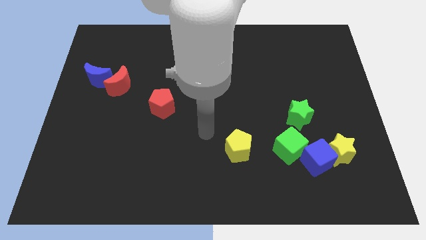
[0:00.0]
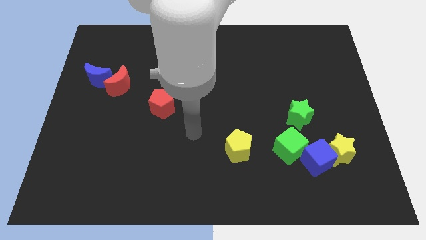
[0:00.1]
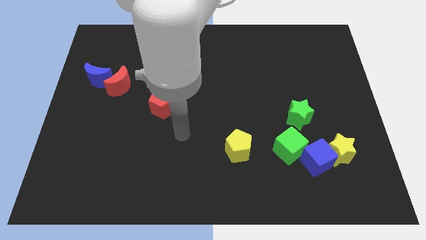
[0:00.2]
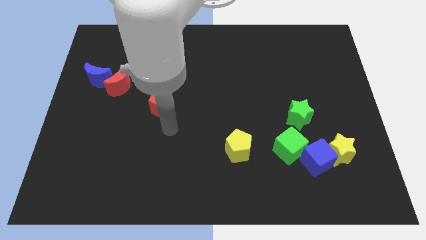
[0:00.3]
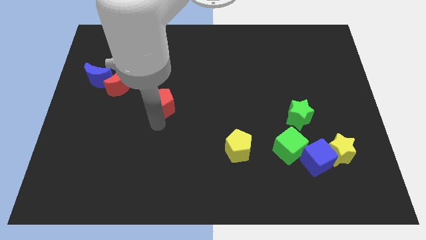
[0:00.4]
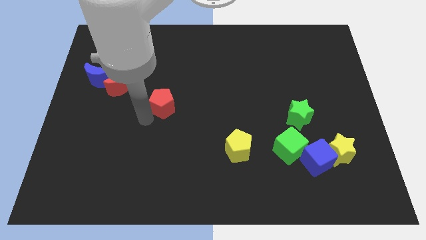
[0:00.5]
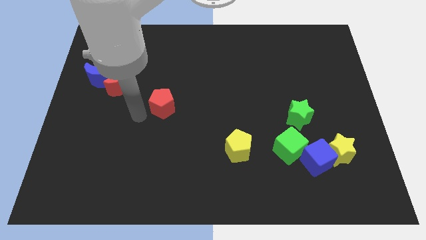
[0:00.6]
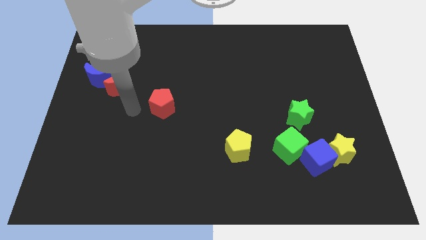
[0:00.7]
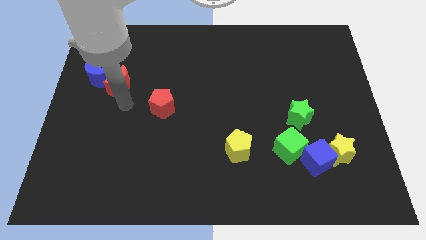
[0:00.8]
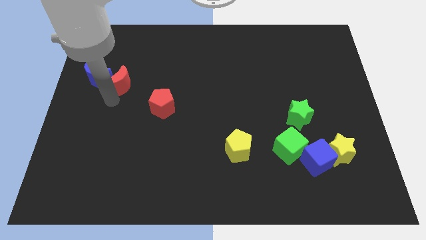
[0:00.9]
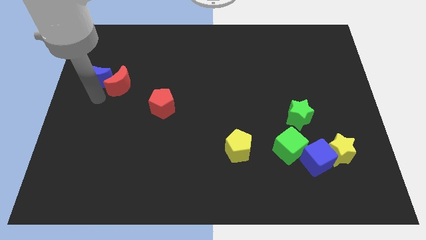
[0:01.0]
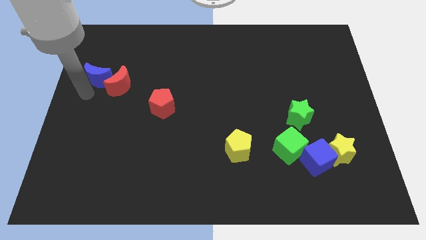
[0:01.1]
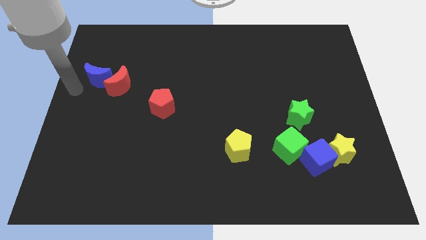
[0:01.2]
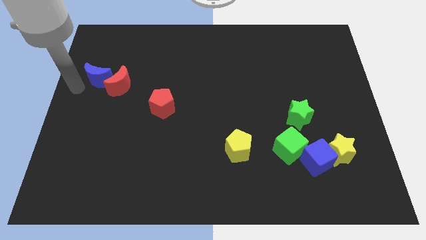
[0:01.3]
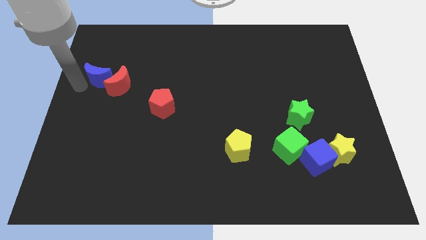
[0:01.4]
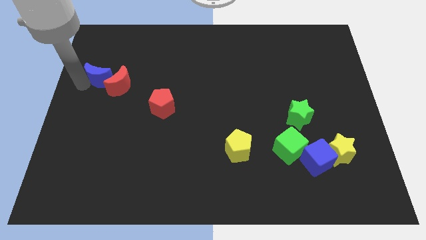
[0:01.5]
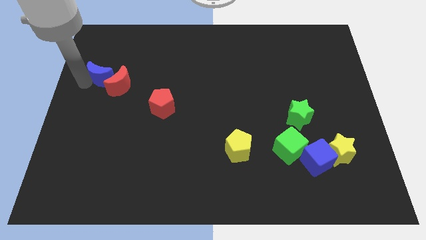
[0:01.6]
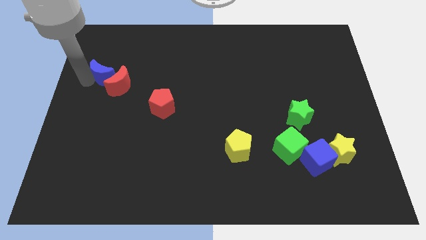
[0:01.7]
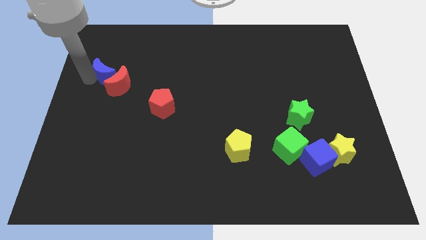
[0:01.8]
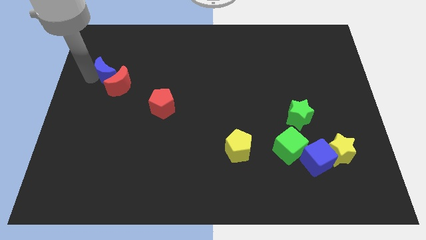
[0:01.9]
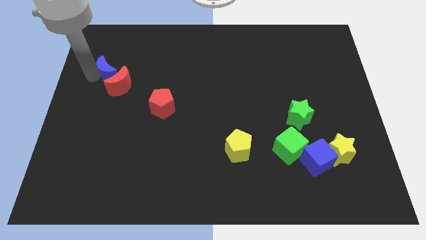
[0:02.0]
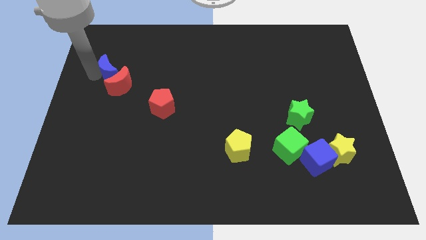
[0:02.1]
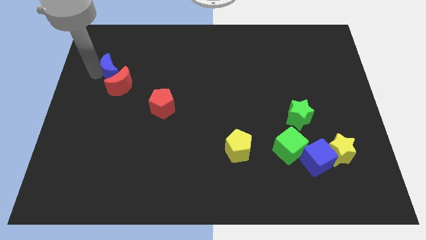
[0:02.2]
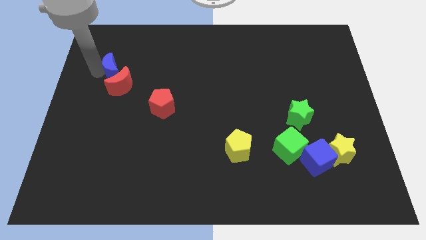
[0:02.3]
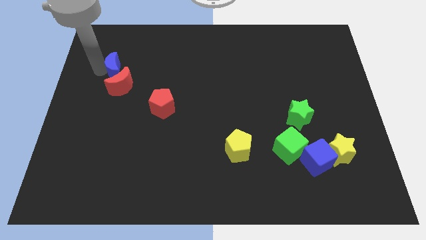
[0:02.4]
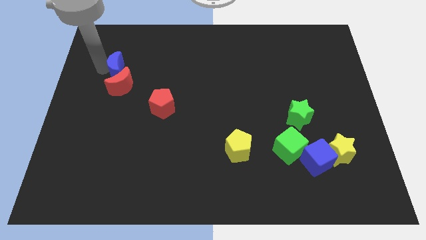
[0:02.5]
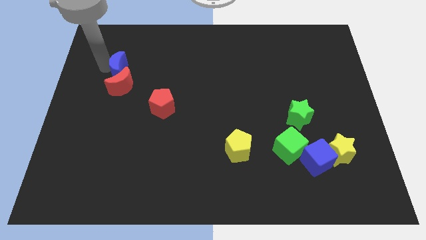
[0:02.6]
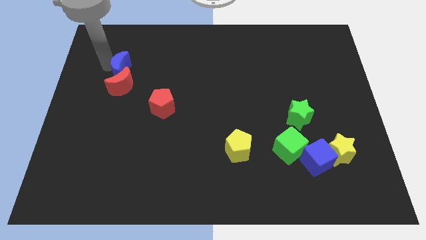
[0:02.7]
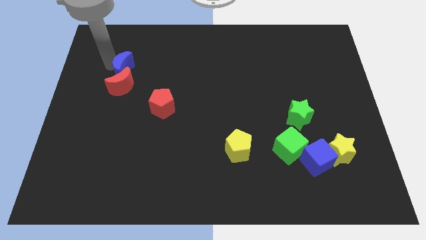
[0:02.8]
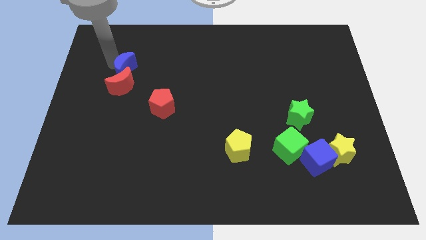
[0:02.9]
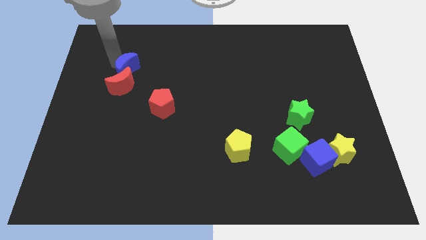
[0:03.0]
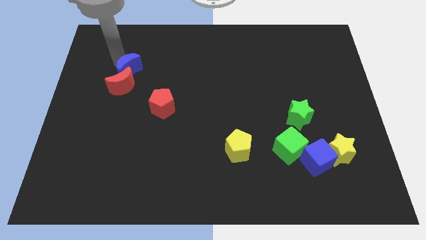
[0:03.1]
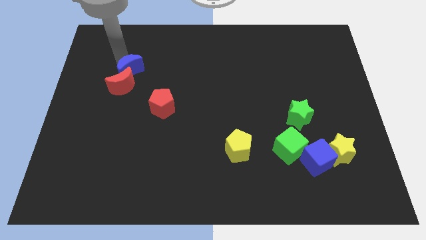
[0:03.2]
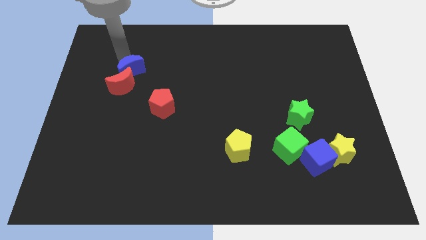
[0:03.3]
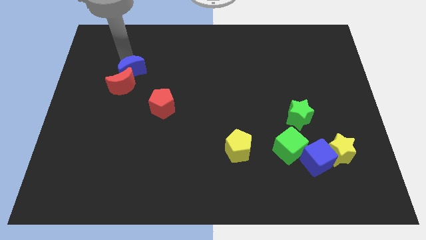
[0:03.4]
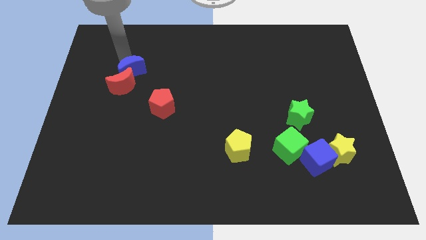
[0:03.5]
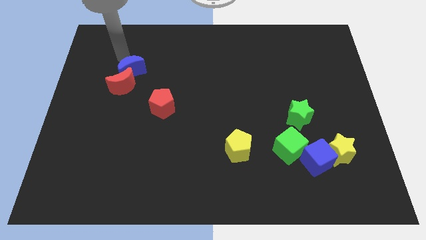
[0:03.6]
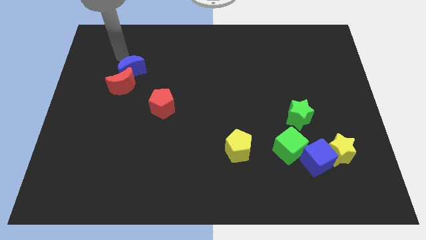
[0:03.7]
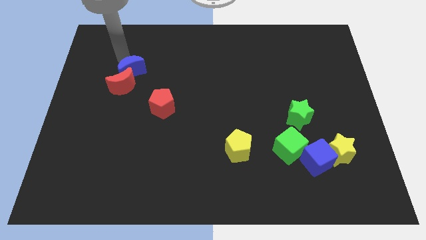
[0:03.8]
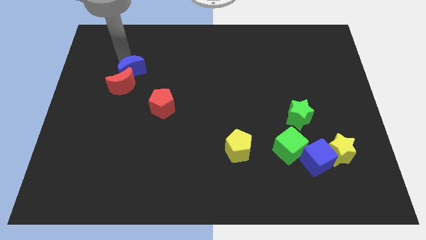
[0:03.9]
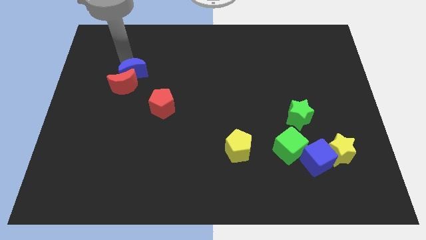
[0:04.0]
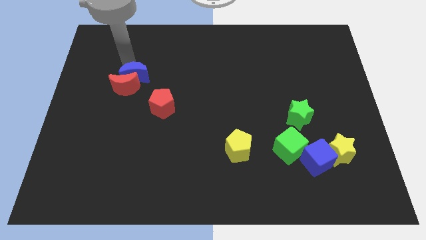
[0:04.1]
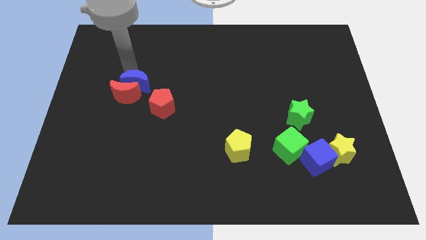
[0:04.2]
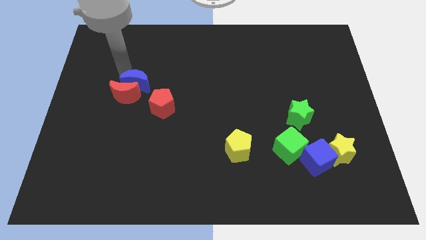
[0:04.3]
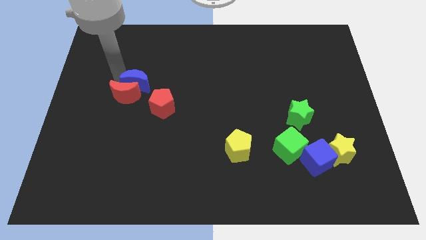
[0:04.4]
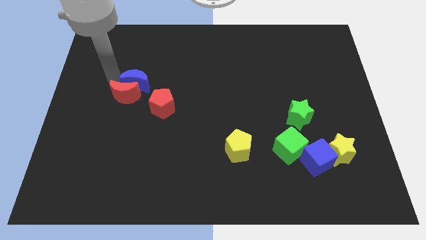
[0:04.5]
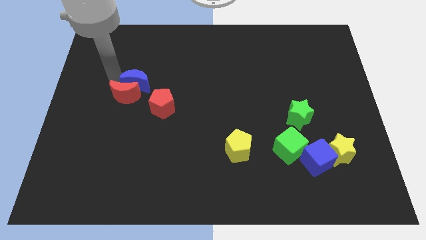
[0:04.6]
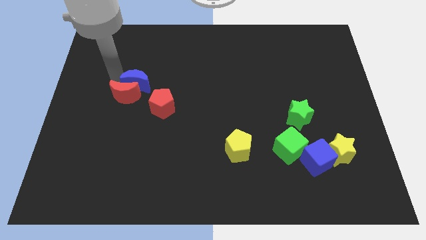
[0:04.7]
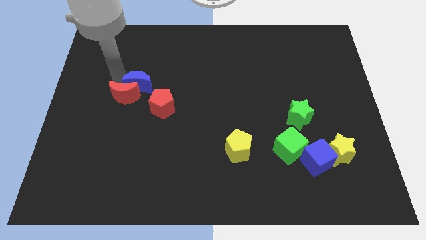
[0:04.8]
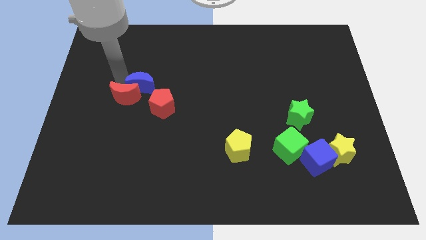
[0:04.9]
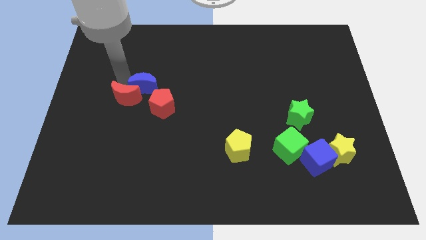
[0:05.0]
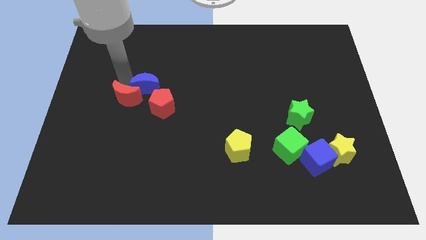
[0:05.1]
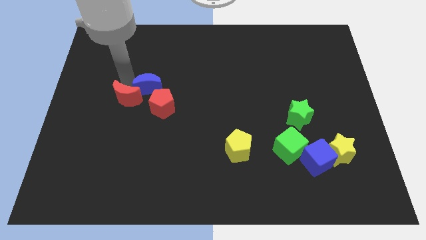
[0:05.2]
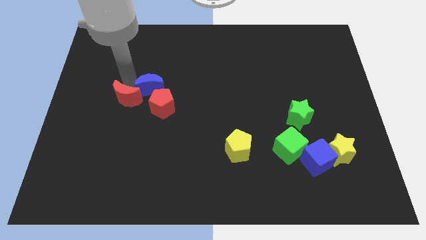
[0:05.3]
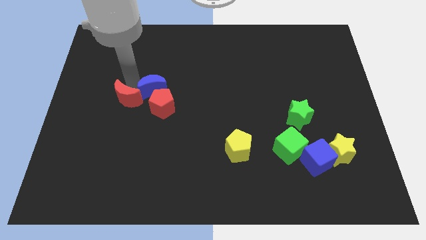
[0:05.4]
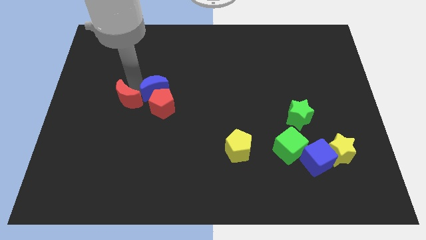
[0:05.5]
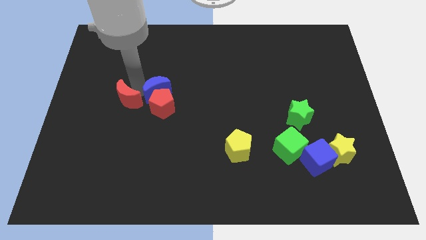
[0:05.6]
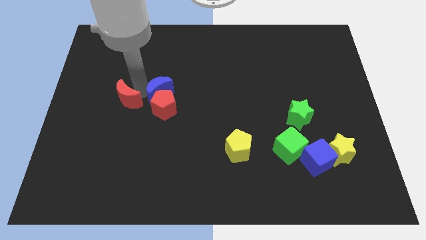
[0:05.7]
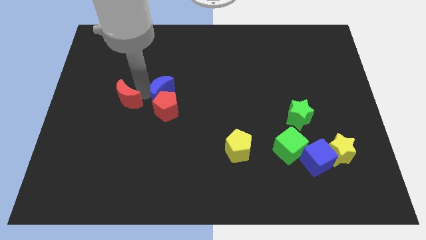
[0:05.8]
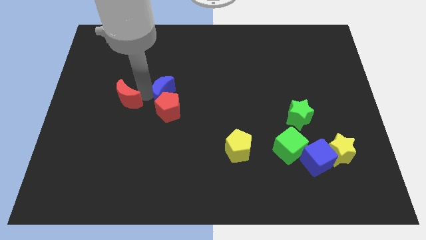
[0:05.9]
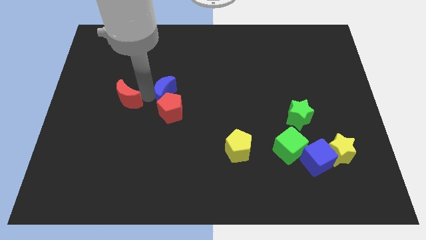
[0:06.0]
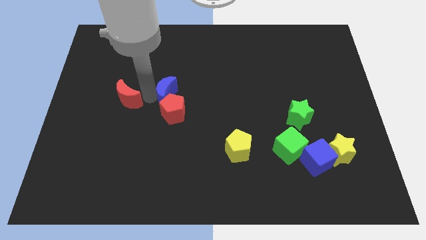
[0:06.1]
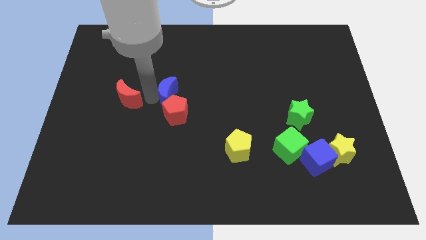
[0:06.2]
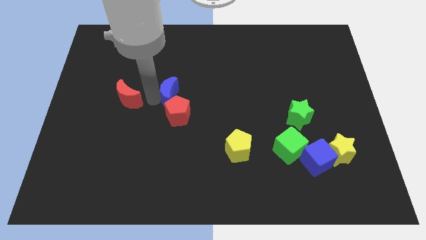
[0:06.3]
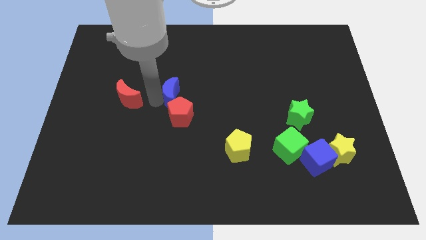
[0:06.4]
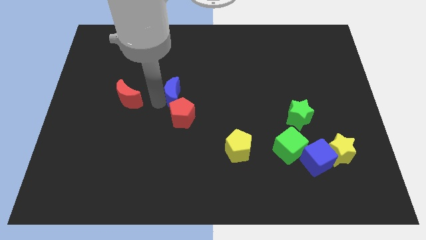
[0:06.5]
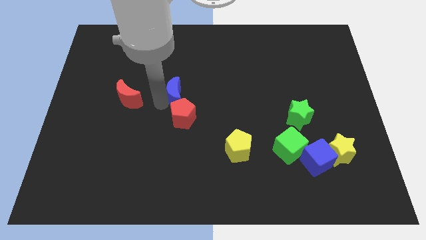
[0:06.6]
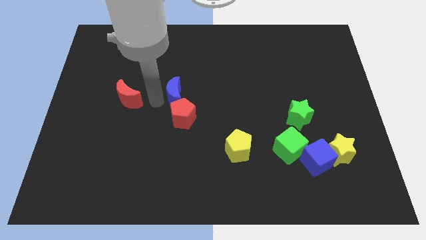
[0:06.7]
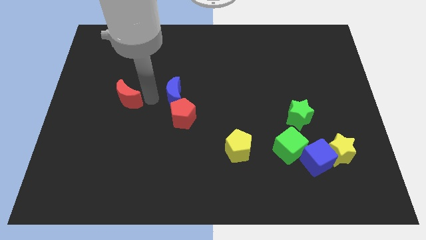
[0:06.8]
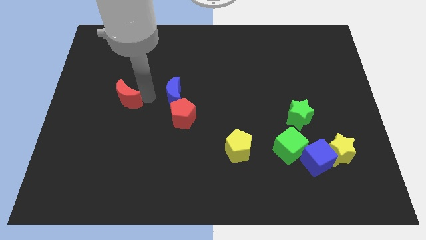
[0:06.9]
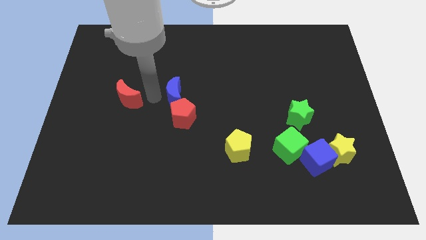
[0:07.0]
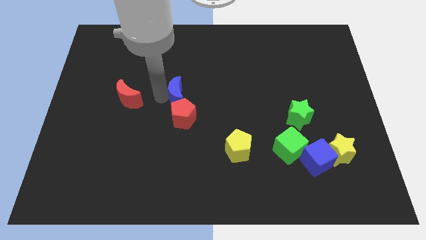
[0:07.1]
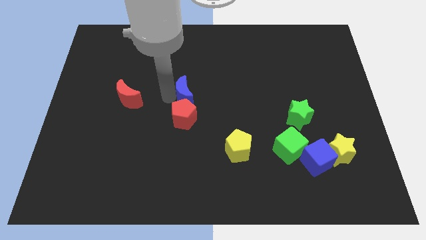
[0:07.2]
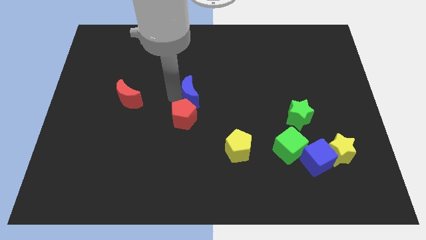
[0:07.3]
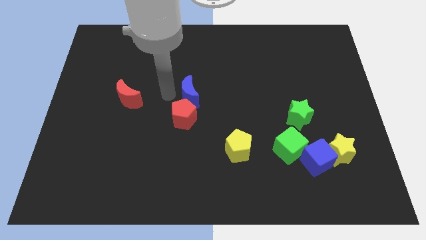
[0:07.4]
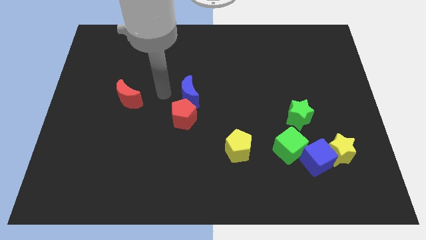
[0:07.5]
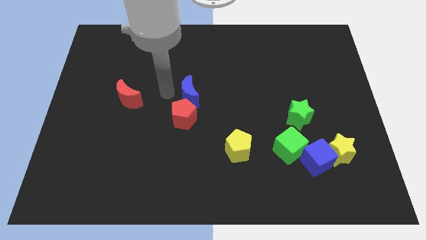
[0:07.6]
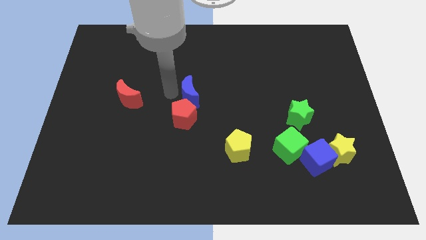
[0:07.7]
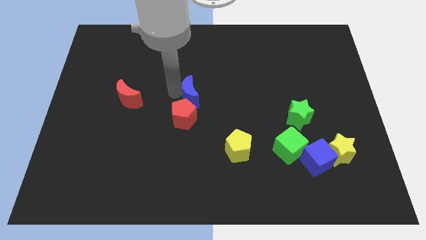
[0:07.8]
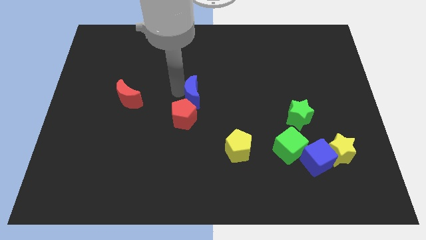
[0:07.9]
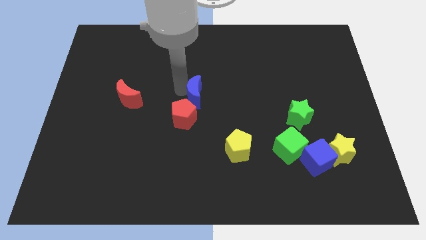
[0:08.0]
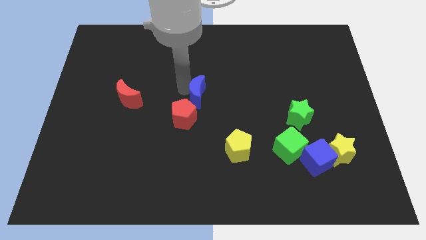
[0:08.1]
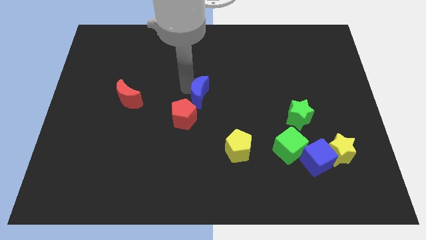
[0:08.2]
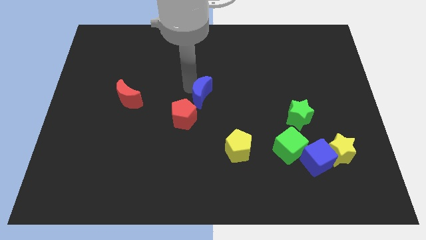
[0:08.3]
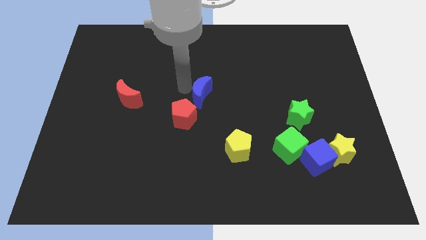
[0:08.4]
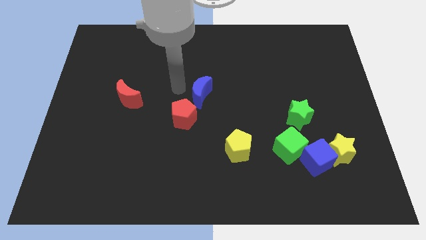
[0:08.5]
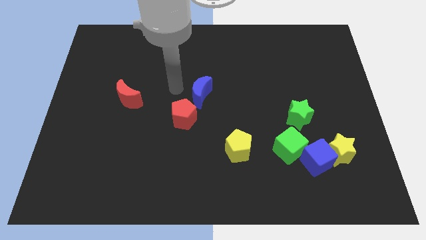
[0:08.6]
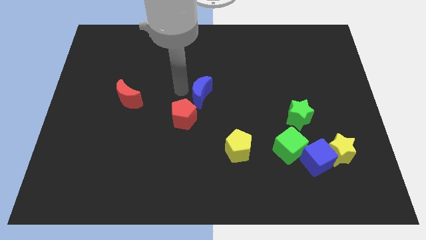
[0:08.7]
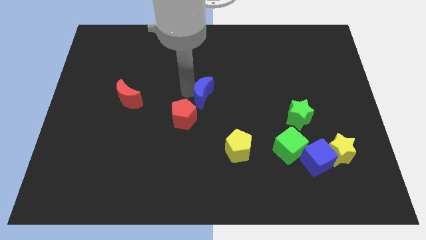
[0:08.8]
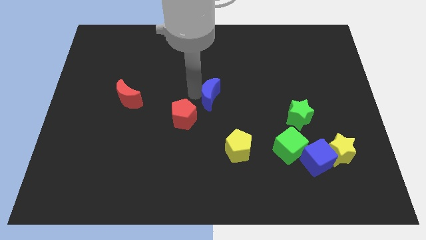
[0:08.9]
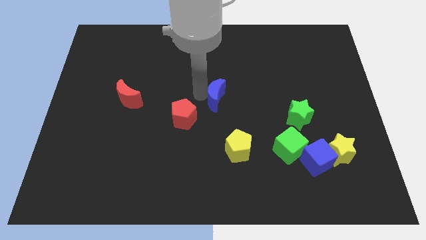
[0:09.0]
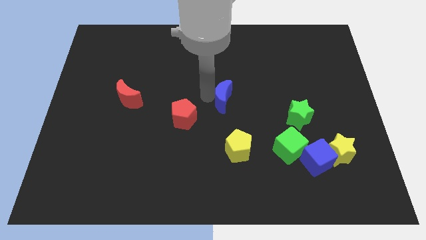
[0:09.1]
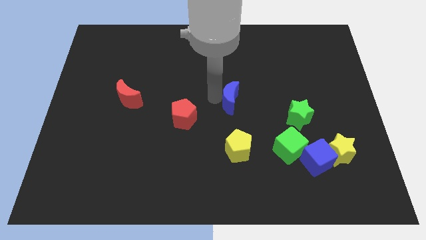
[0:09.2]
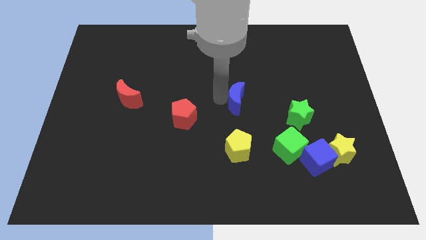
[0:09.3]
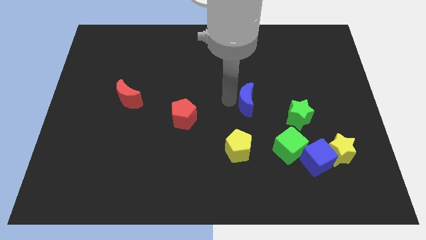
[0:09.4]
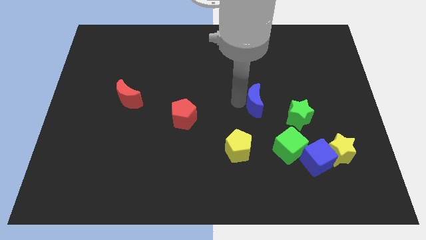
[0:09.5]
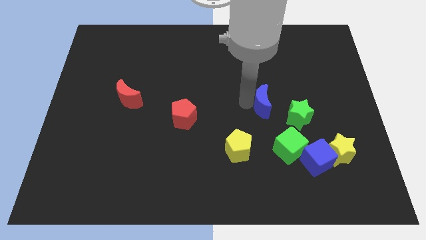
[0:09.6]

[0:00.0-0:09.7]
move the blue moon to the top side of the green cube
